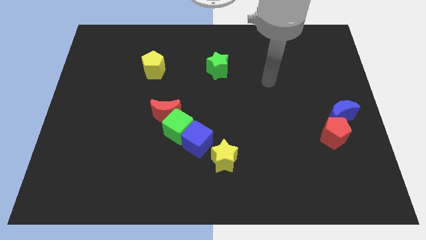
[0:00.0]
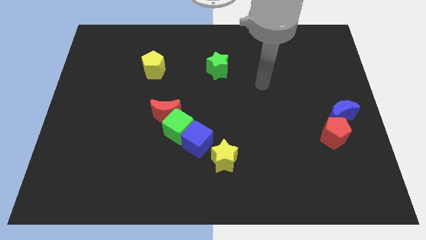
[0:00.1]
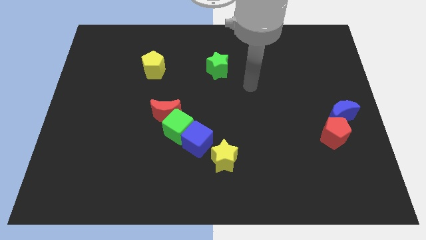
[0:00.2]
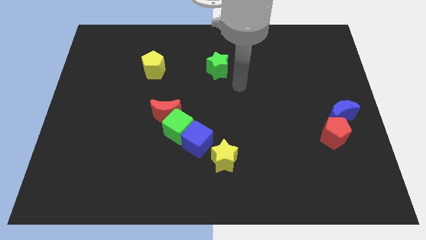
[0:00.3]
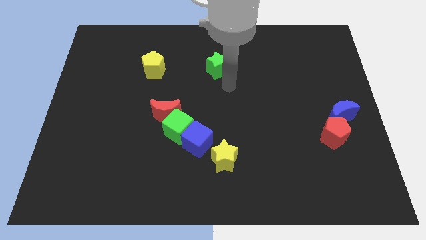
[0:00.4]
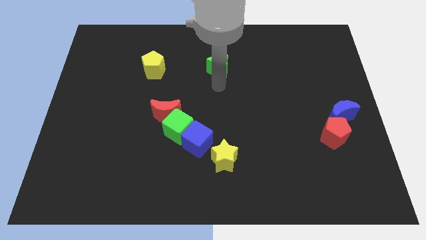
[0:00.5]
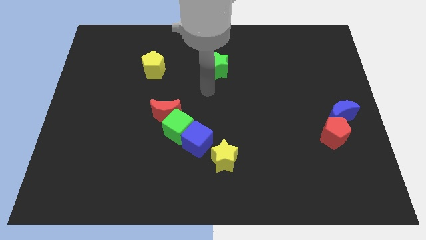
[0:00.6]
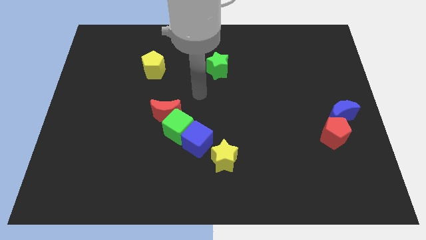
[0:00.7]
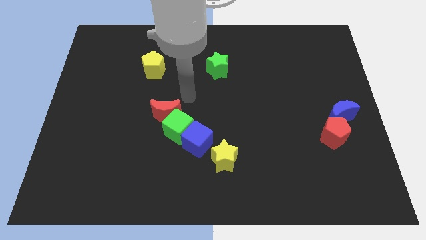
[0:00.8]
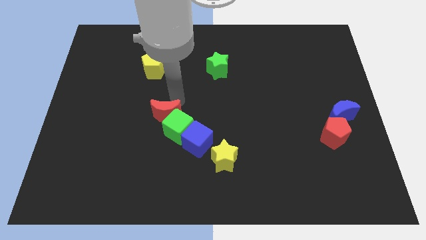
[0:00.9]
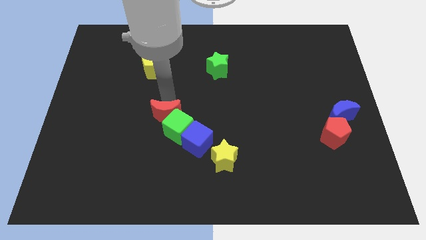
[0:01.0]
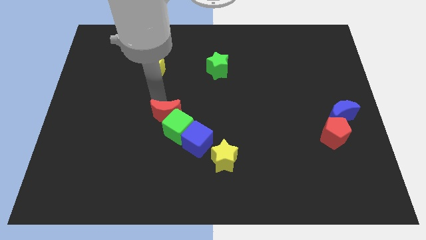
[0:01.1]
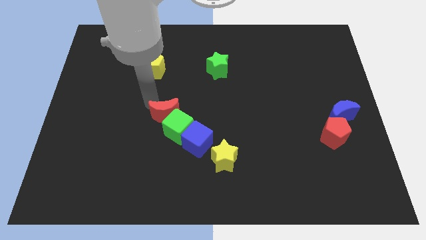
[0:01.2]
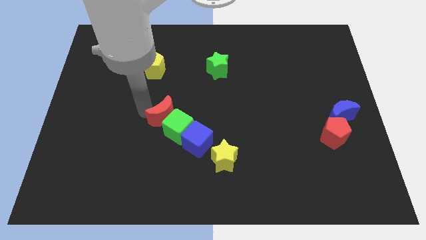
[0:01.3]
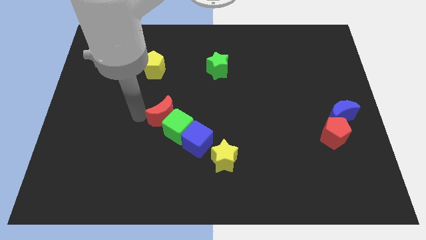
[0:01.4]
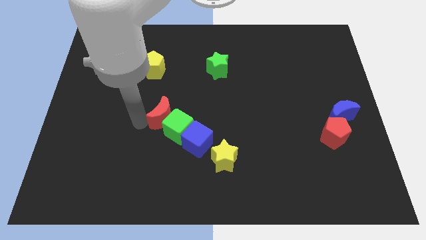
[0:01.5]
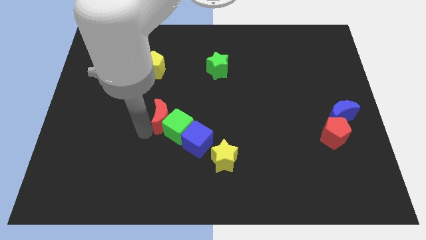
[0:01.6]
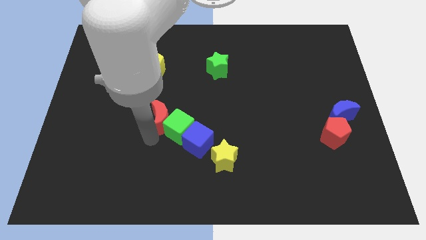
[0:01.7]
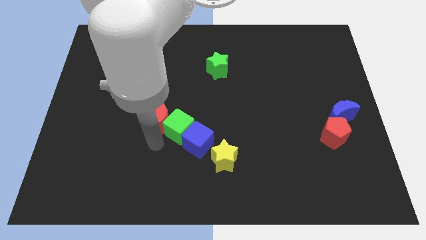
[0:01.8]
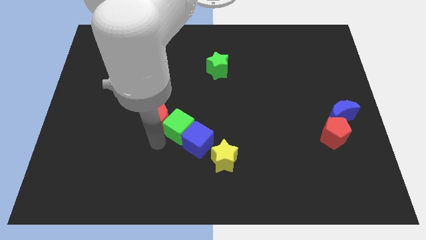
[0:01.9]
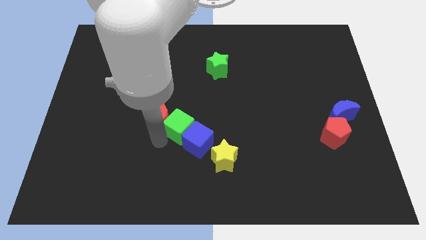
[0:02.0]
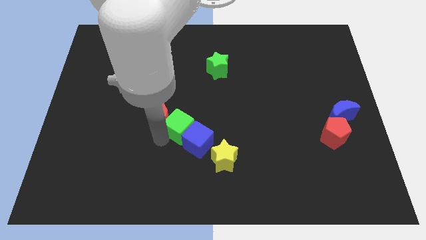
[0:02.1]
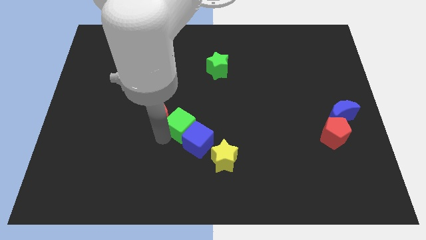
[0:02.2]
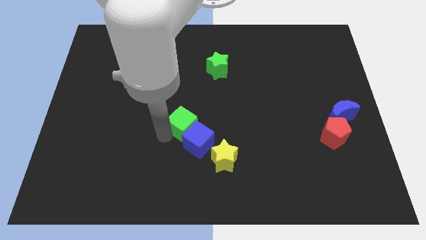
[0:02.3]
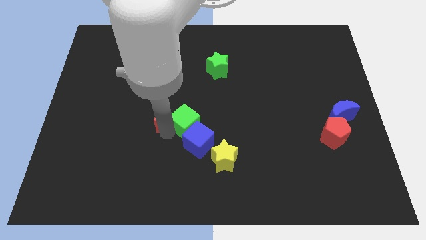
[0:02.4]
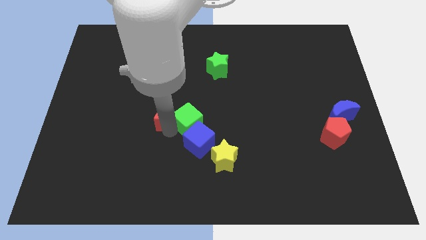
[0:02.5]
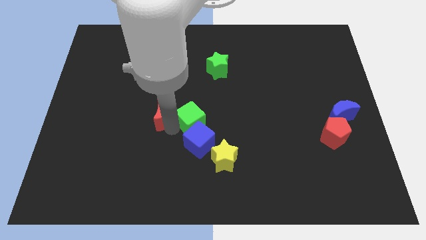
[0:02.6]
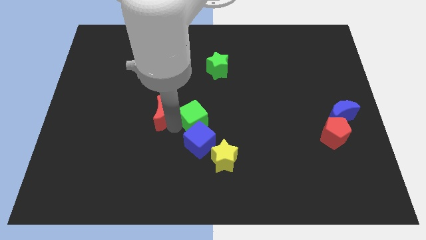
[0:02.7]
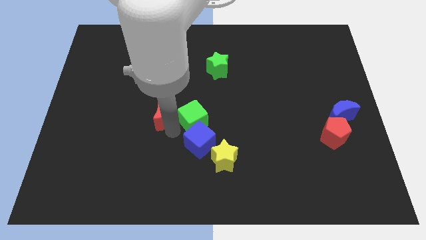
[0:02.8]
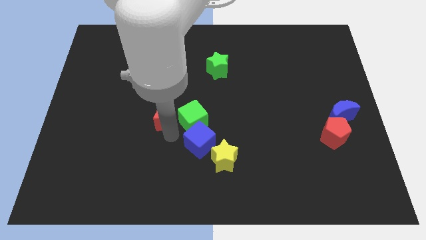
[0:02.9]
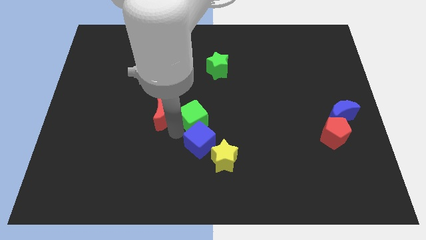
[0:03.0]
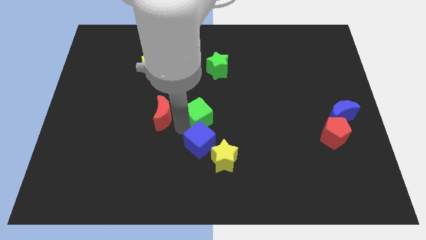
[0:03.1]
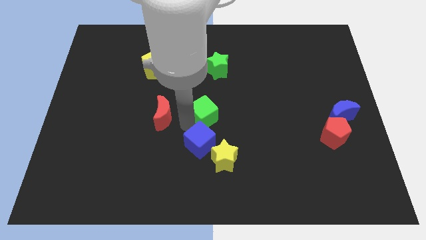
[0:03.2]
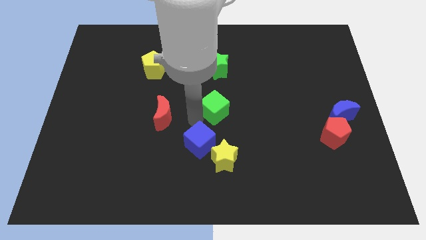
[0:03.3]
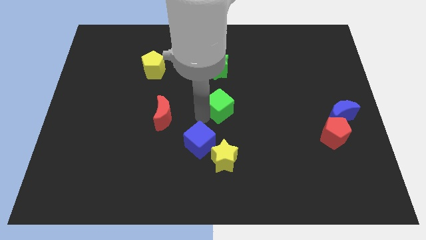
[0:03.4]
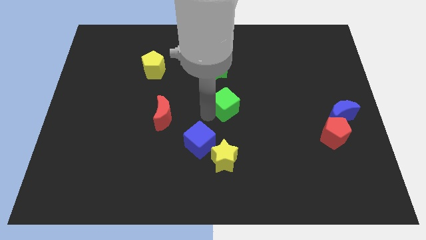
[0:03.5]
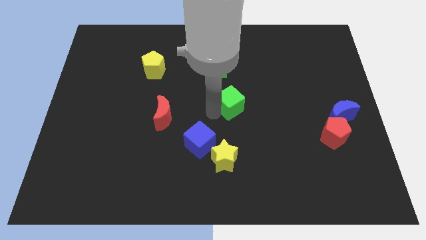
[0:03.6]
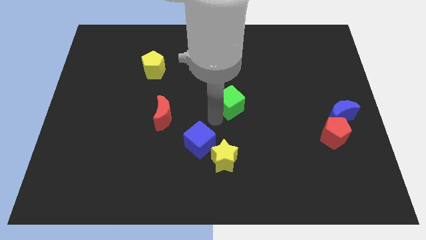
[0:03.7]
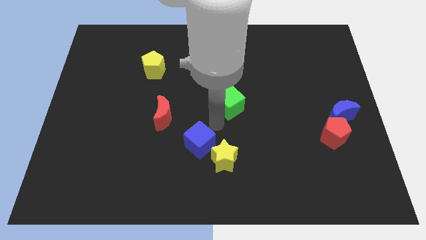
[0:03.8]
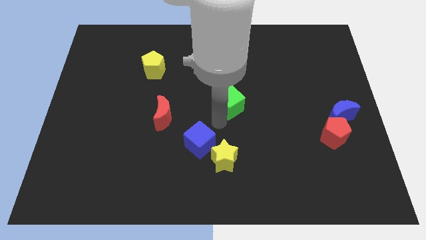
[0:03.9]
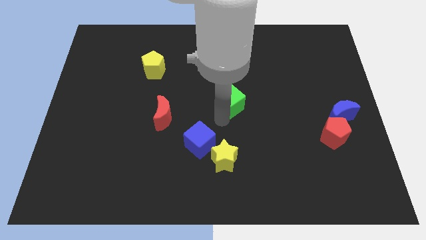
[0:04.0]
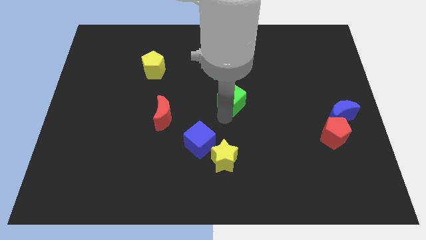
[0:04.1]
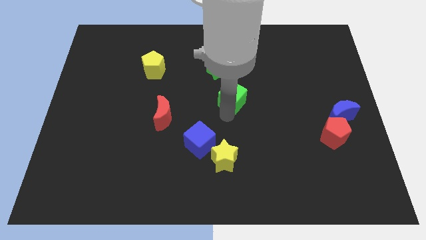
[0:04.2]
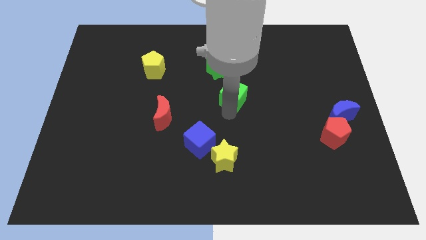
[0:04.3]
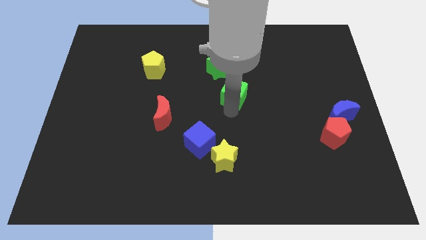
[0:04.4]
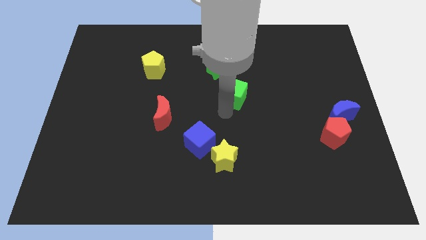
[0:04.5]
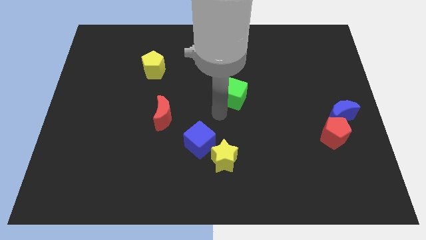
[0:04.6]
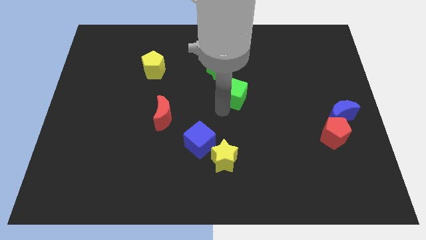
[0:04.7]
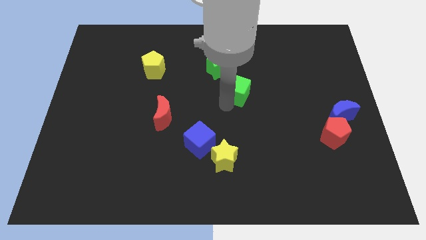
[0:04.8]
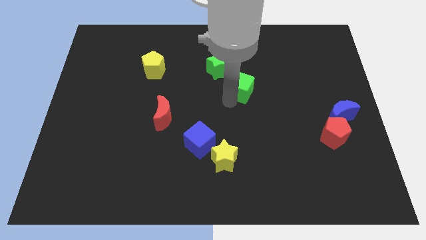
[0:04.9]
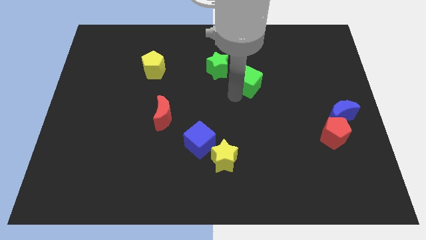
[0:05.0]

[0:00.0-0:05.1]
move the green cube diagonally upwards and right

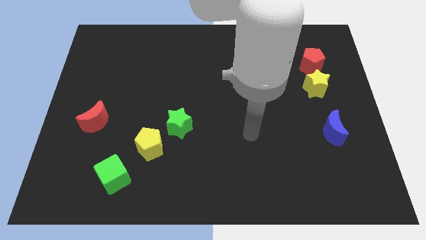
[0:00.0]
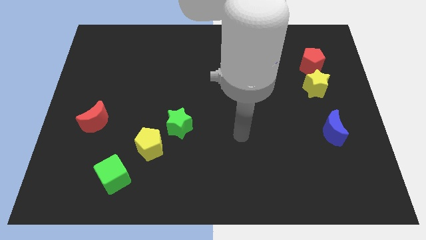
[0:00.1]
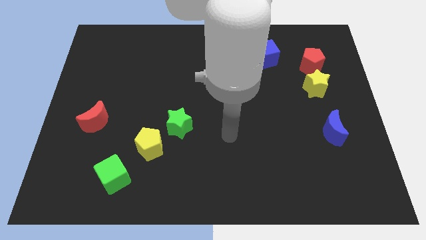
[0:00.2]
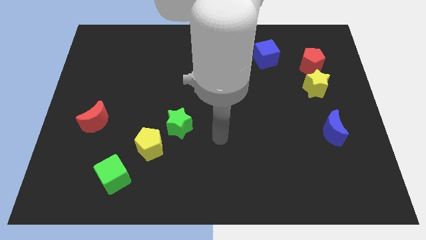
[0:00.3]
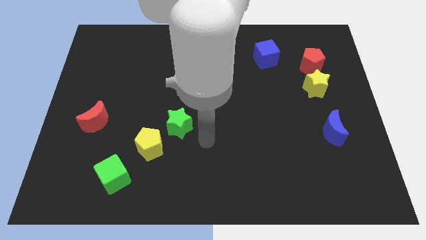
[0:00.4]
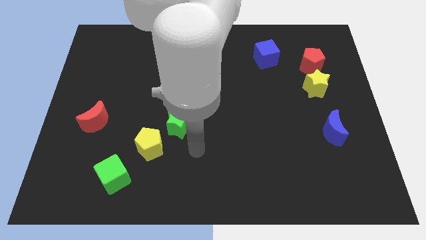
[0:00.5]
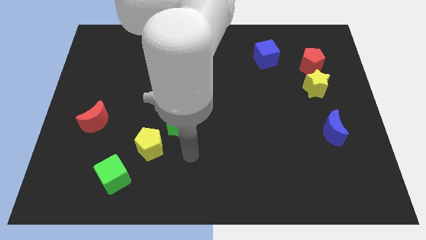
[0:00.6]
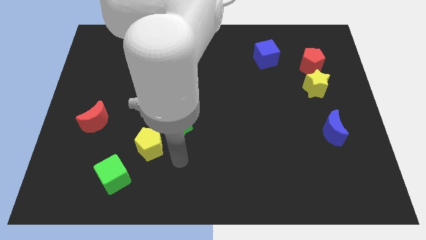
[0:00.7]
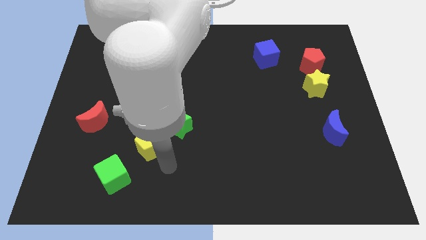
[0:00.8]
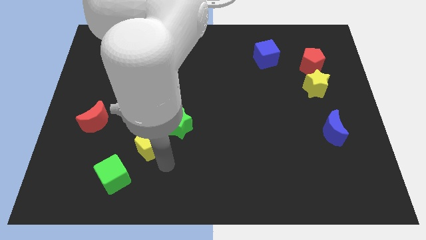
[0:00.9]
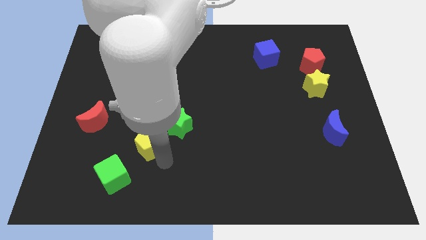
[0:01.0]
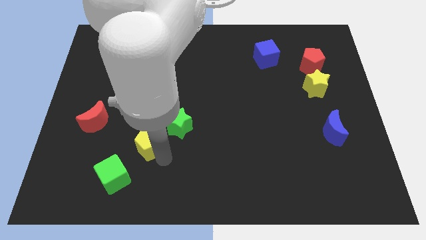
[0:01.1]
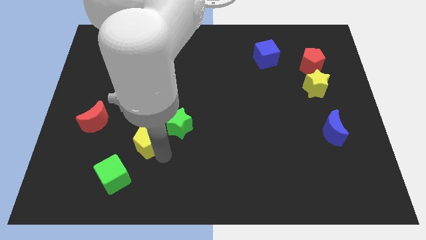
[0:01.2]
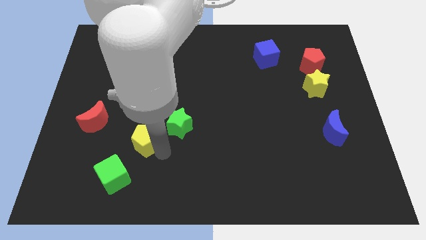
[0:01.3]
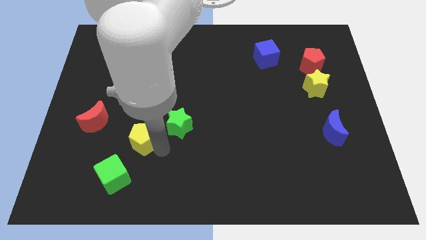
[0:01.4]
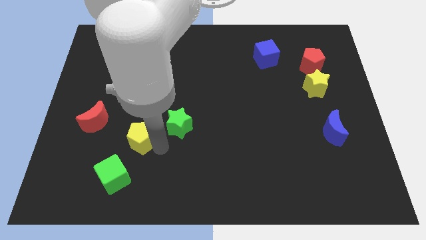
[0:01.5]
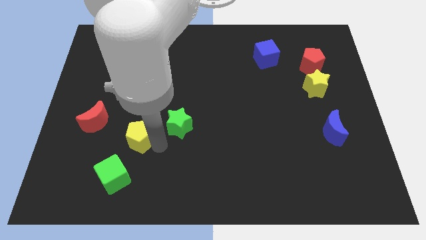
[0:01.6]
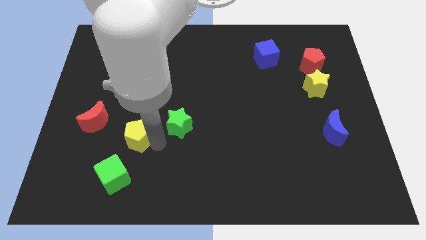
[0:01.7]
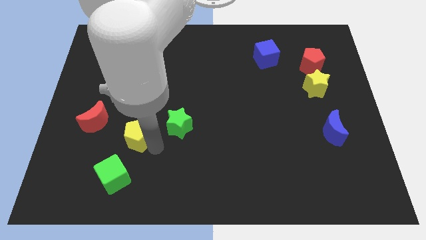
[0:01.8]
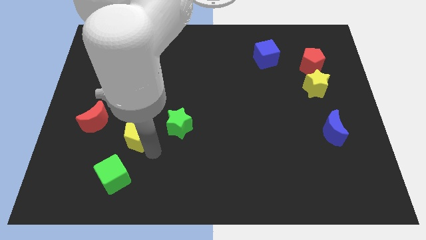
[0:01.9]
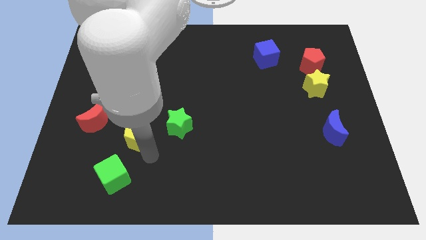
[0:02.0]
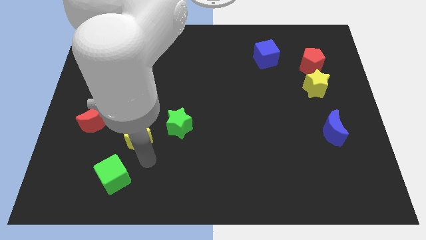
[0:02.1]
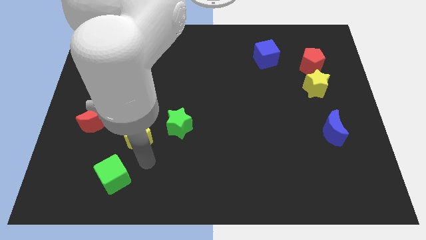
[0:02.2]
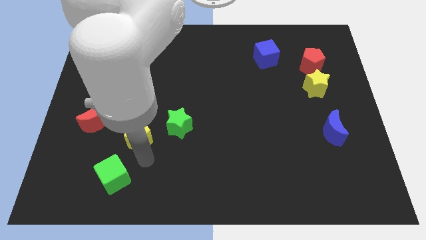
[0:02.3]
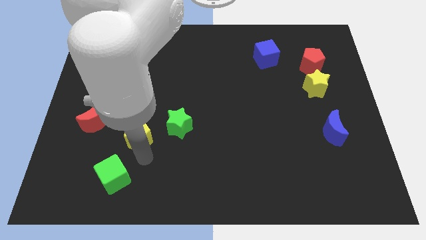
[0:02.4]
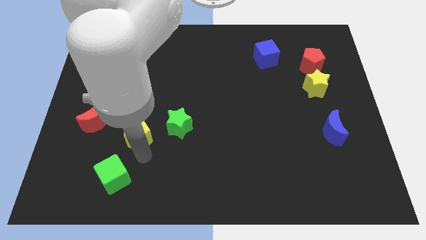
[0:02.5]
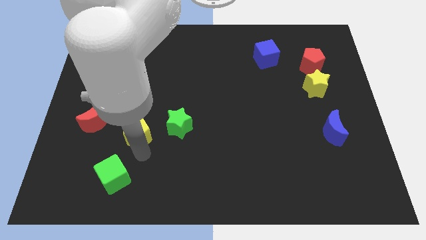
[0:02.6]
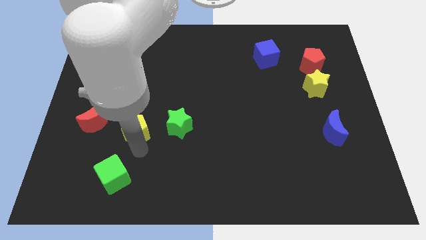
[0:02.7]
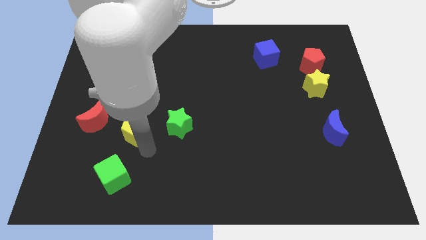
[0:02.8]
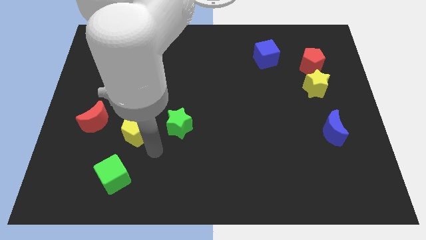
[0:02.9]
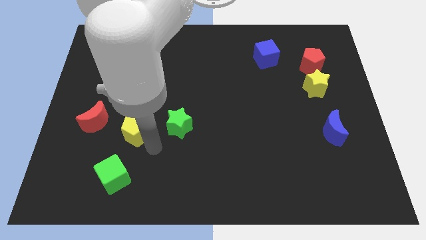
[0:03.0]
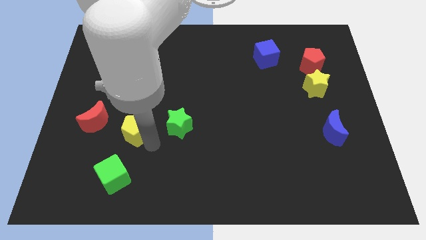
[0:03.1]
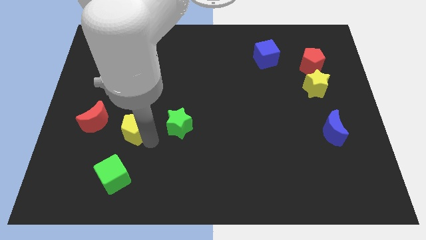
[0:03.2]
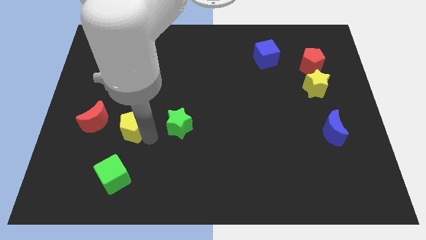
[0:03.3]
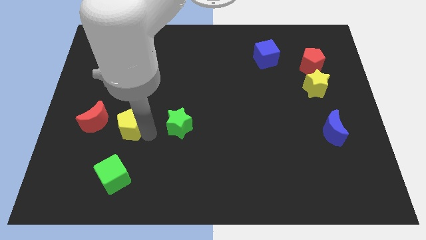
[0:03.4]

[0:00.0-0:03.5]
slightly move the yellow pentagon diagonally up and left
